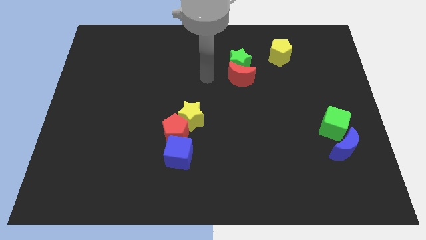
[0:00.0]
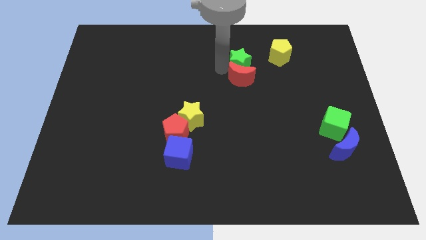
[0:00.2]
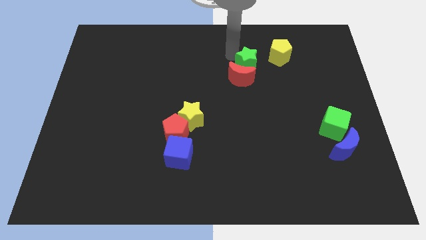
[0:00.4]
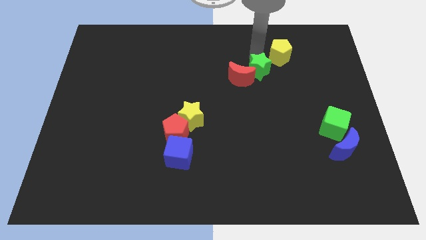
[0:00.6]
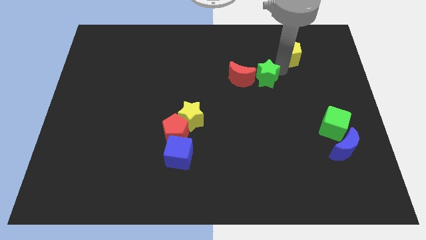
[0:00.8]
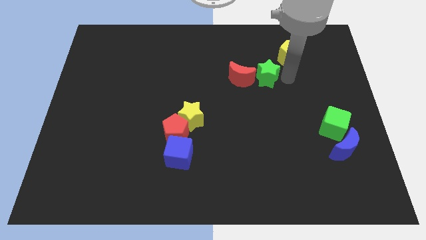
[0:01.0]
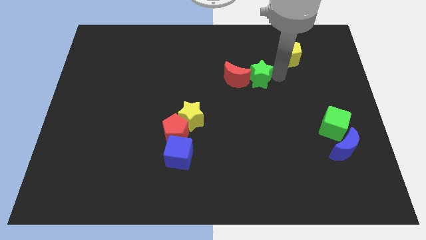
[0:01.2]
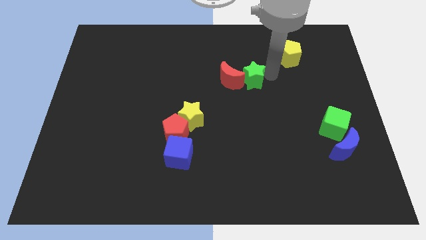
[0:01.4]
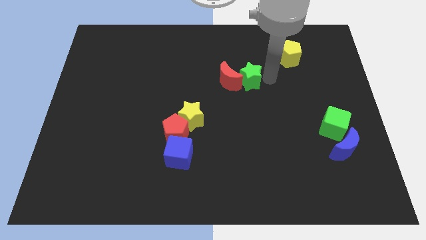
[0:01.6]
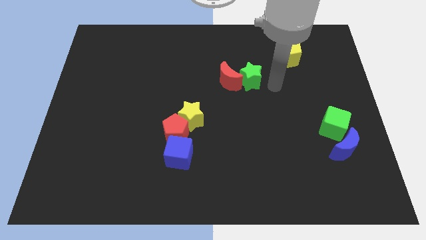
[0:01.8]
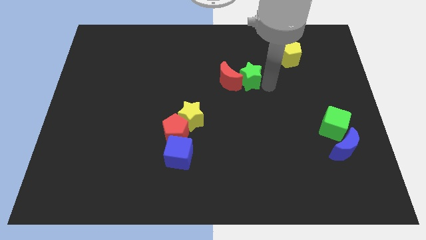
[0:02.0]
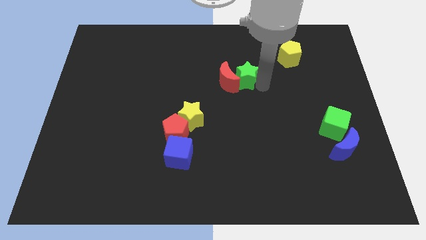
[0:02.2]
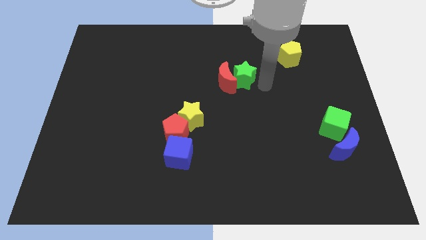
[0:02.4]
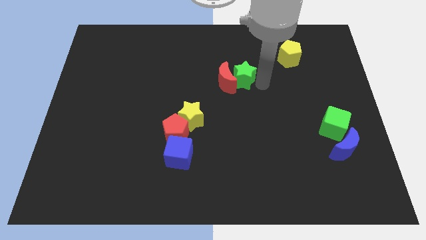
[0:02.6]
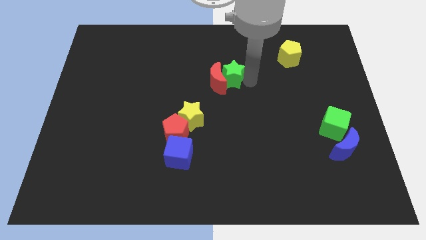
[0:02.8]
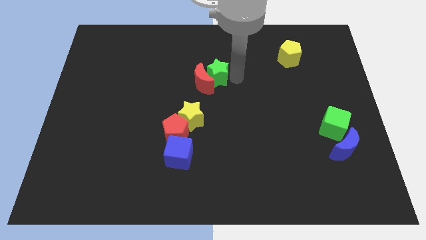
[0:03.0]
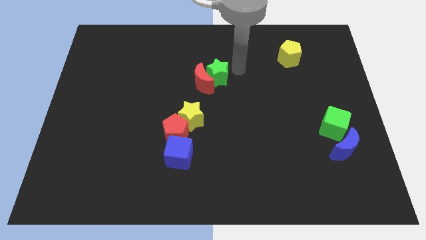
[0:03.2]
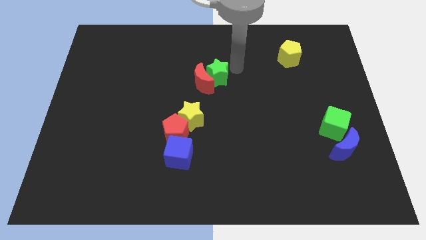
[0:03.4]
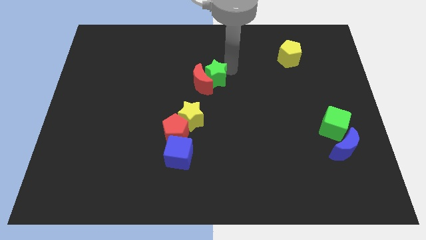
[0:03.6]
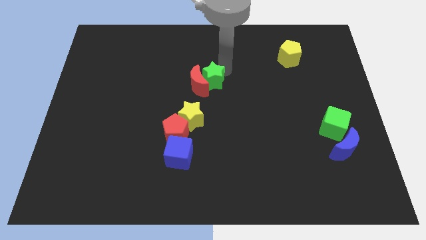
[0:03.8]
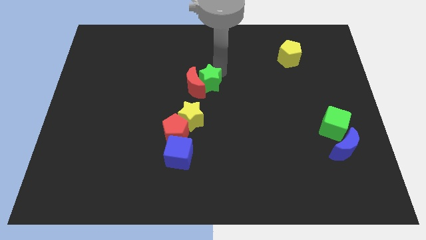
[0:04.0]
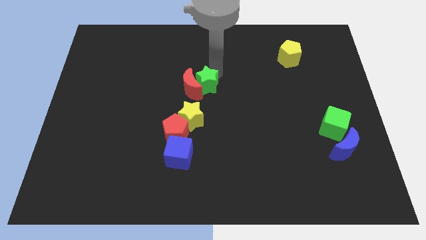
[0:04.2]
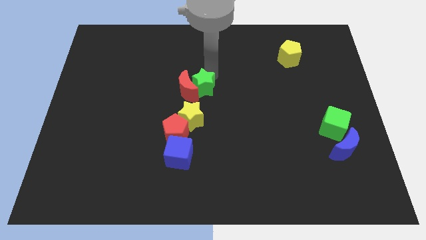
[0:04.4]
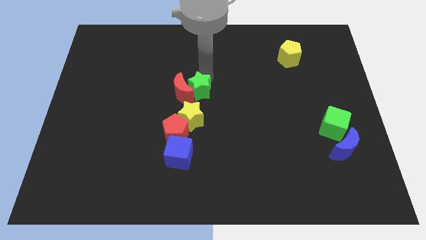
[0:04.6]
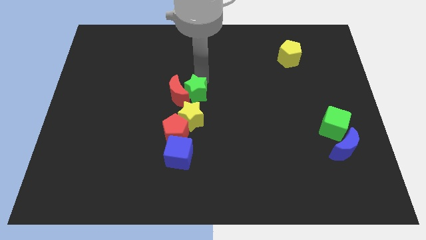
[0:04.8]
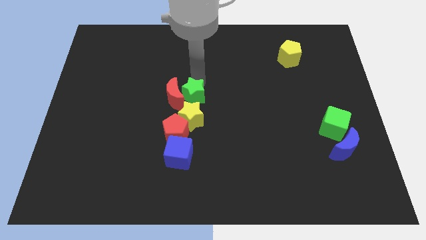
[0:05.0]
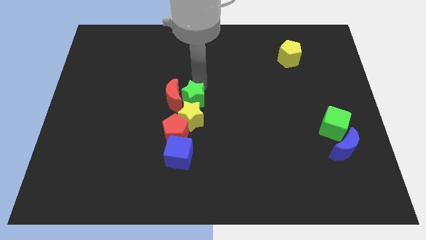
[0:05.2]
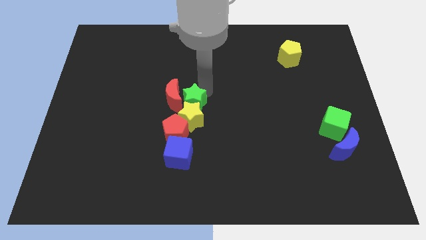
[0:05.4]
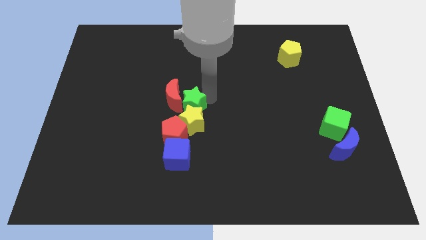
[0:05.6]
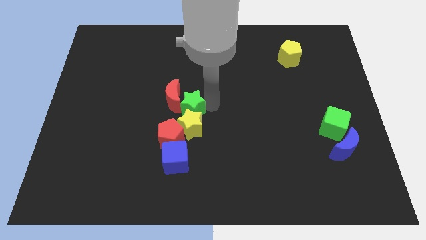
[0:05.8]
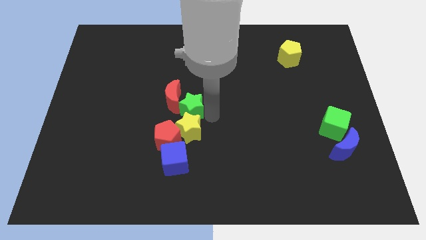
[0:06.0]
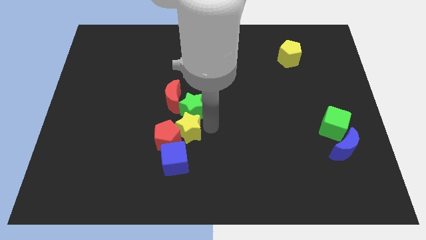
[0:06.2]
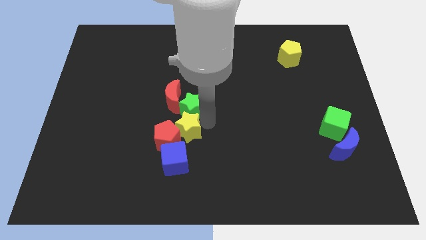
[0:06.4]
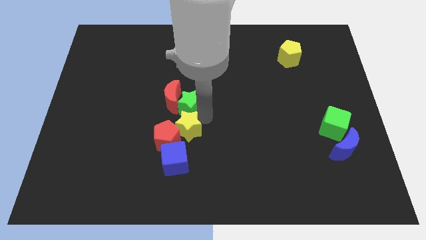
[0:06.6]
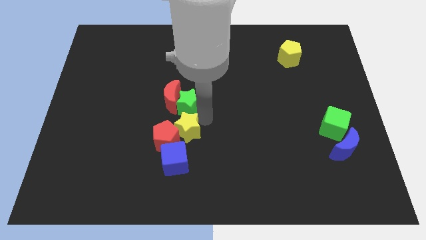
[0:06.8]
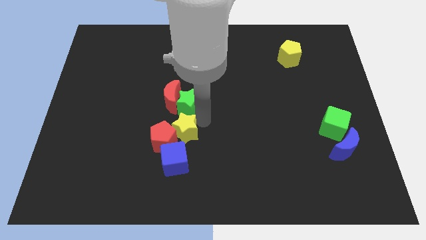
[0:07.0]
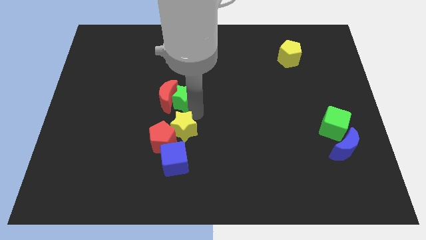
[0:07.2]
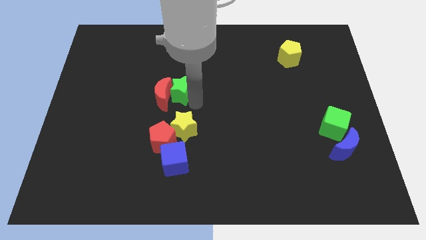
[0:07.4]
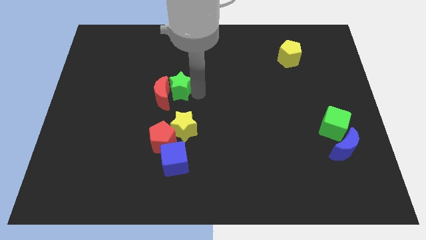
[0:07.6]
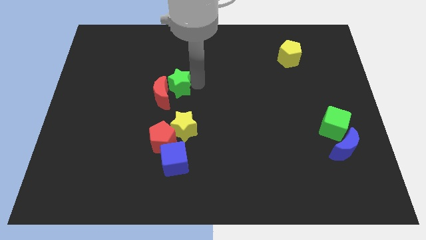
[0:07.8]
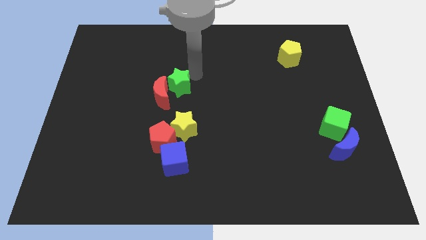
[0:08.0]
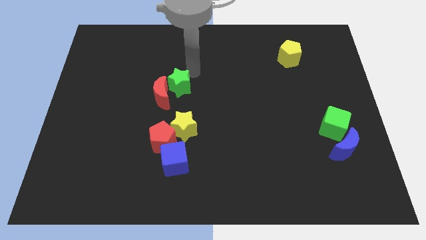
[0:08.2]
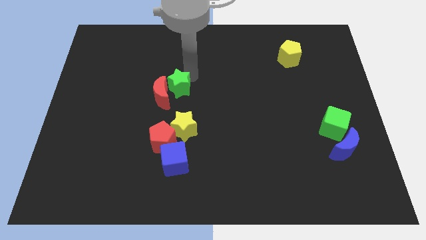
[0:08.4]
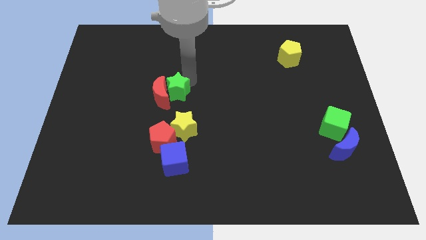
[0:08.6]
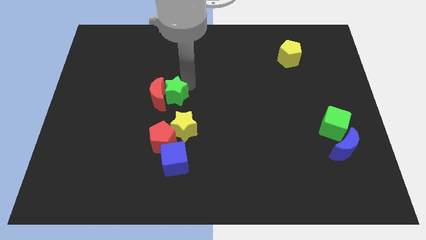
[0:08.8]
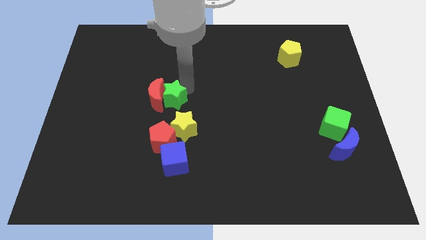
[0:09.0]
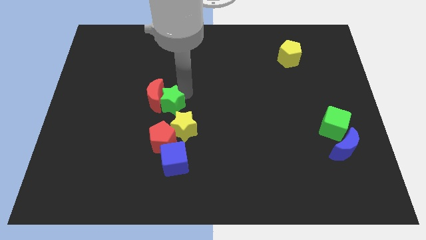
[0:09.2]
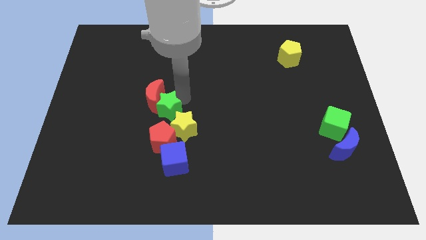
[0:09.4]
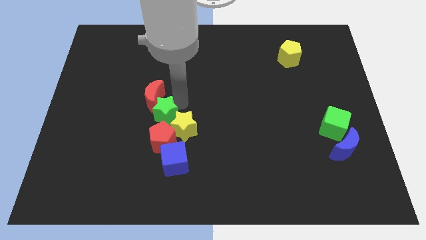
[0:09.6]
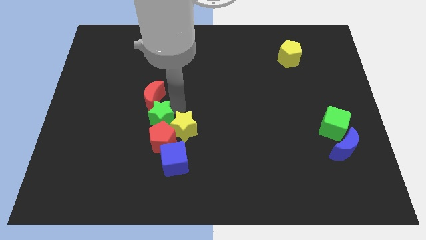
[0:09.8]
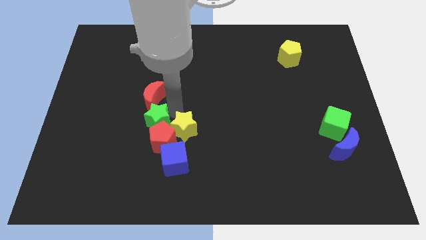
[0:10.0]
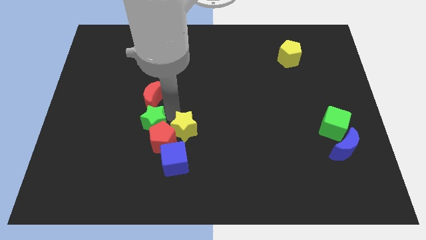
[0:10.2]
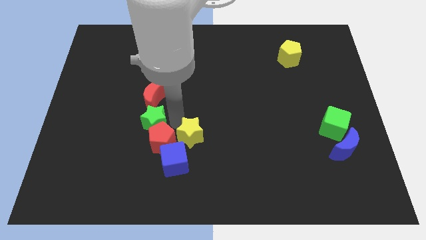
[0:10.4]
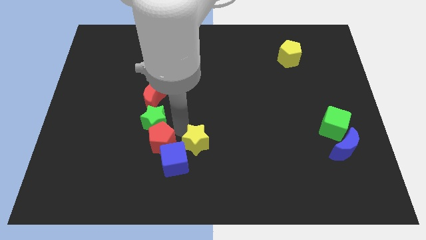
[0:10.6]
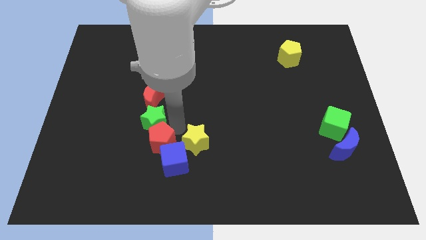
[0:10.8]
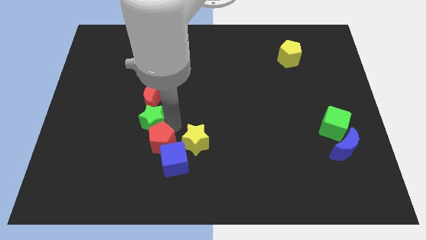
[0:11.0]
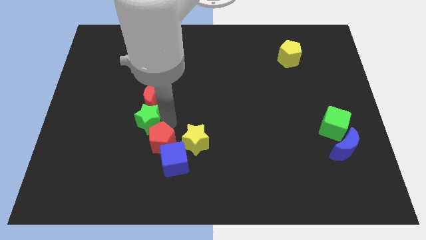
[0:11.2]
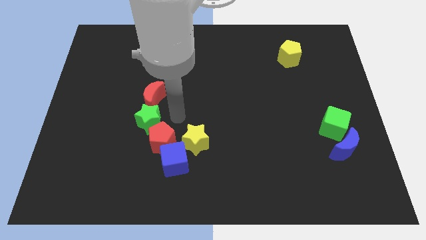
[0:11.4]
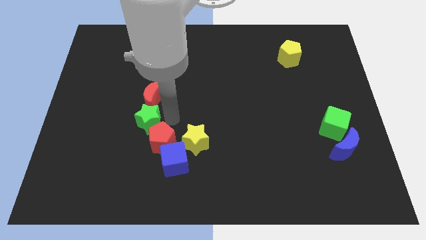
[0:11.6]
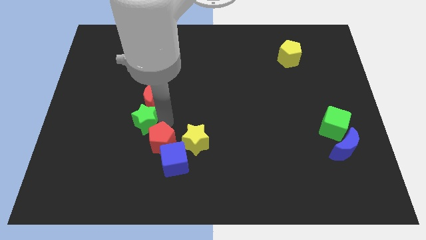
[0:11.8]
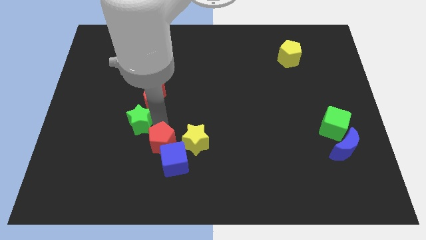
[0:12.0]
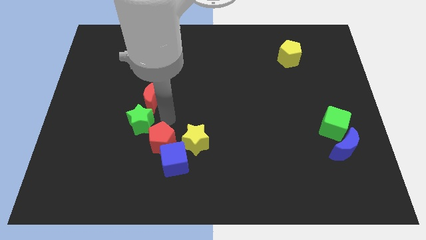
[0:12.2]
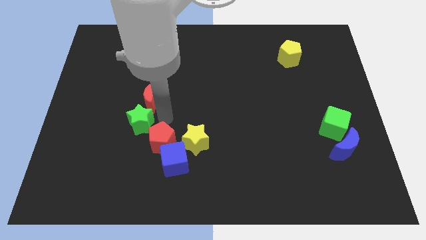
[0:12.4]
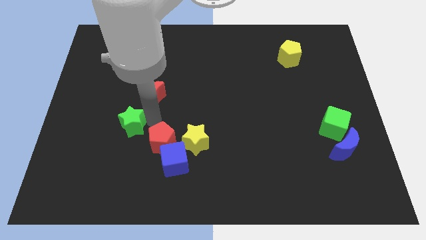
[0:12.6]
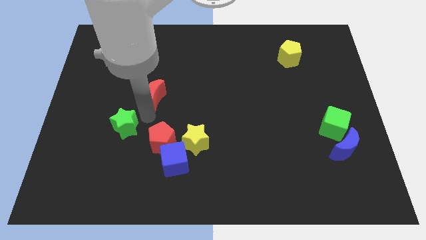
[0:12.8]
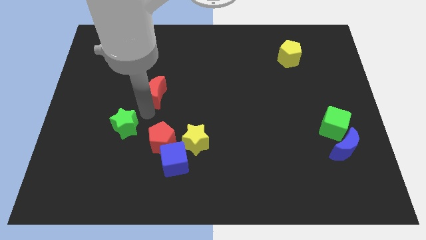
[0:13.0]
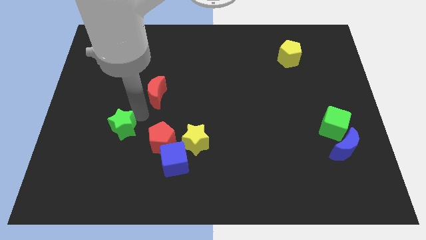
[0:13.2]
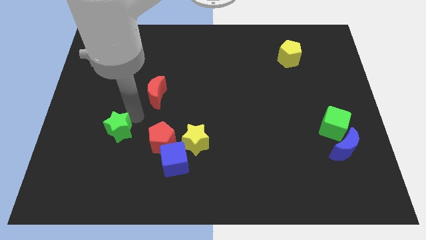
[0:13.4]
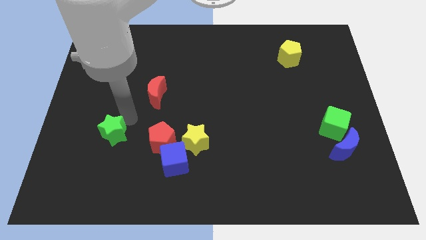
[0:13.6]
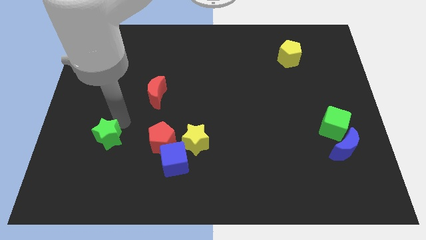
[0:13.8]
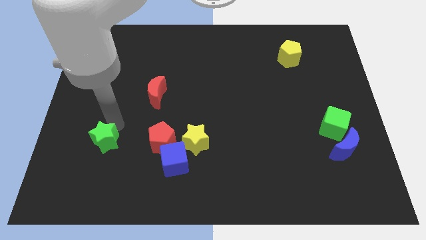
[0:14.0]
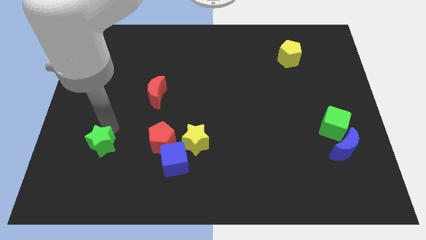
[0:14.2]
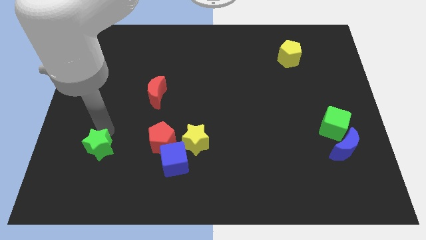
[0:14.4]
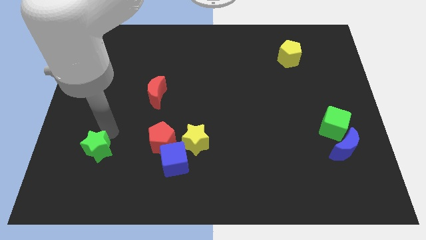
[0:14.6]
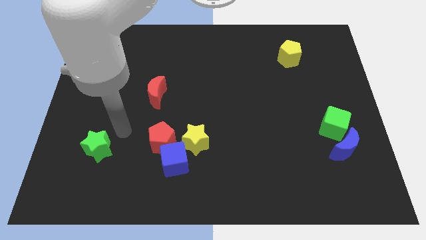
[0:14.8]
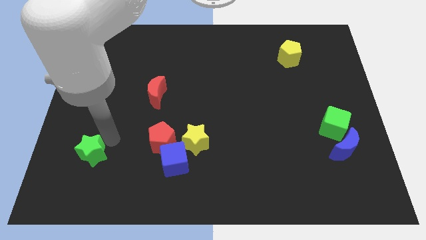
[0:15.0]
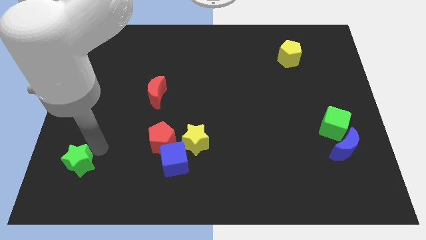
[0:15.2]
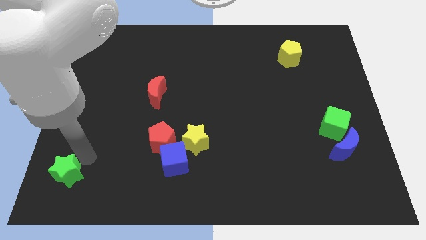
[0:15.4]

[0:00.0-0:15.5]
push the green star to the bottom left
